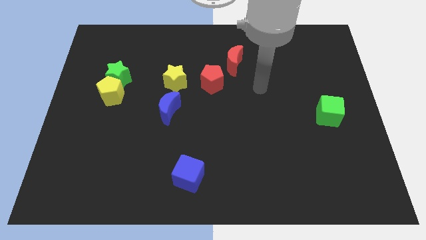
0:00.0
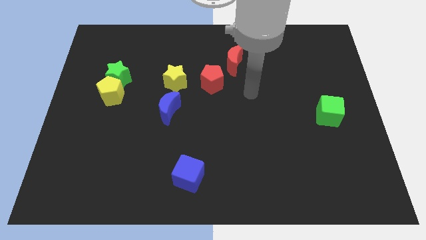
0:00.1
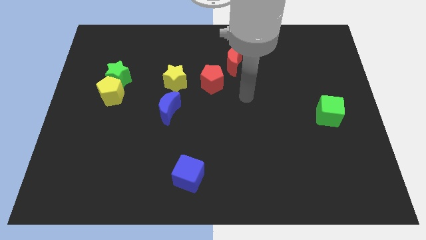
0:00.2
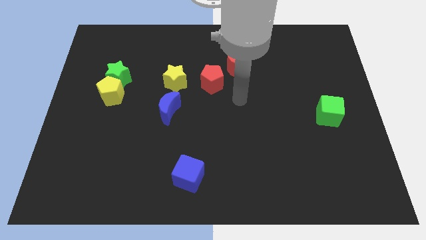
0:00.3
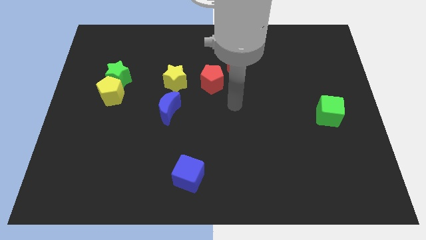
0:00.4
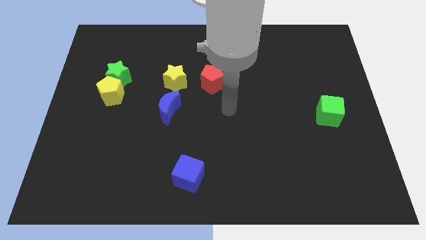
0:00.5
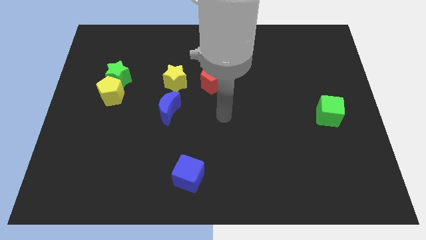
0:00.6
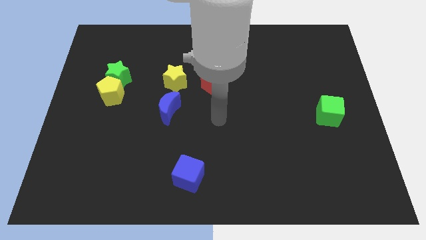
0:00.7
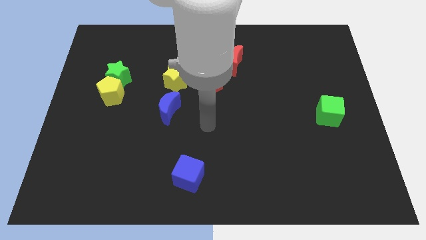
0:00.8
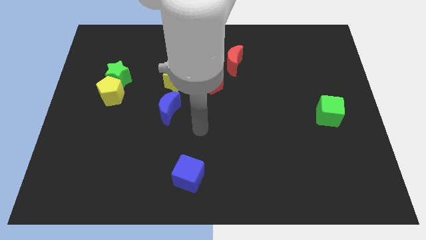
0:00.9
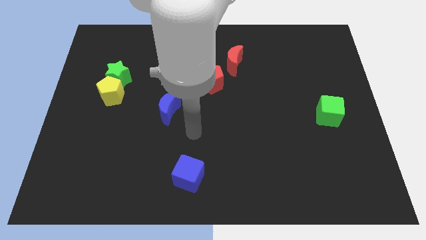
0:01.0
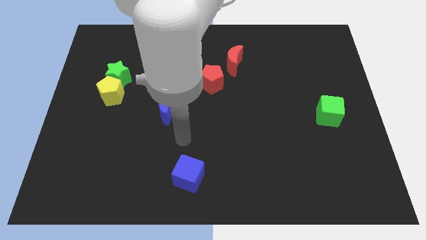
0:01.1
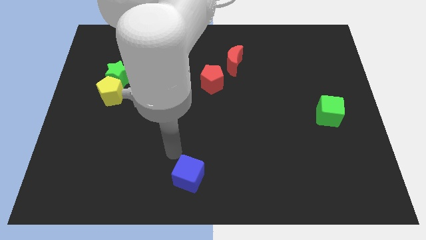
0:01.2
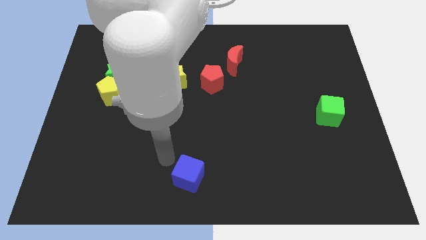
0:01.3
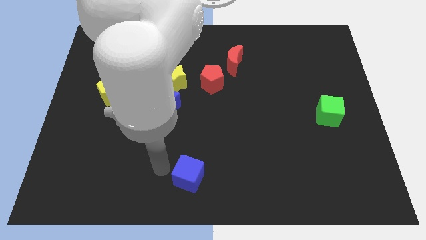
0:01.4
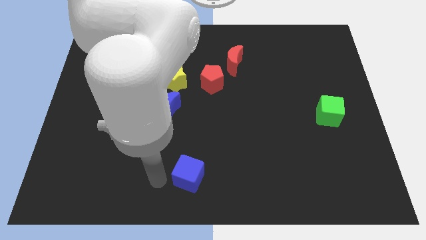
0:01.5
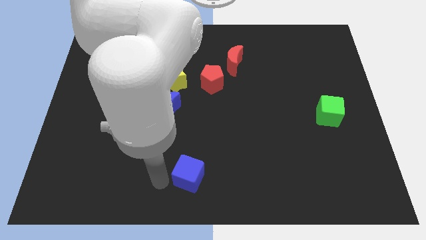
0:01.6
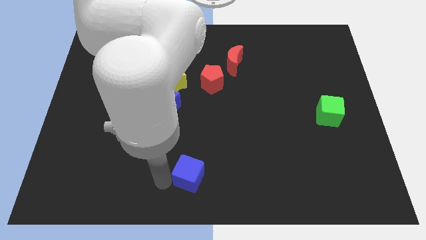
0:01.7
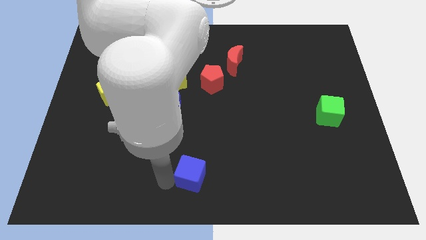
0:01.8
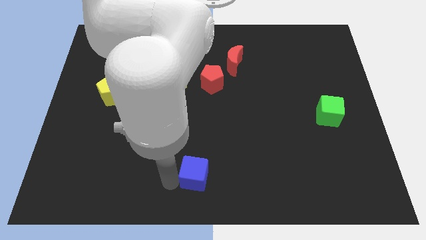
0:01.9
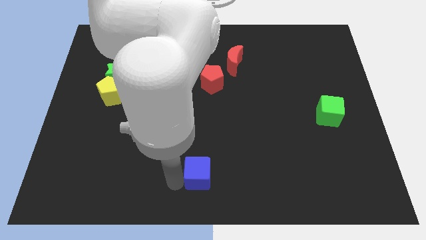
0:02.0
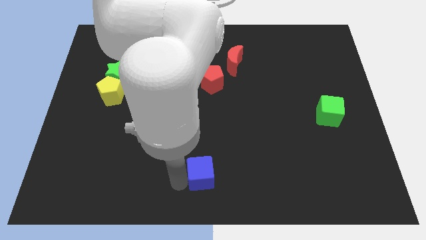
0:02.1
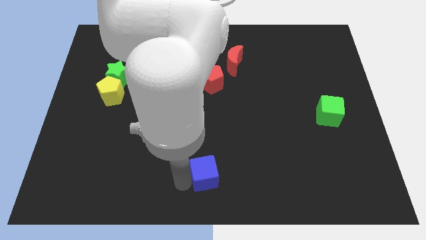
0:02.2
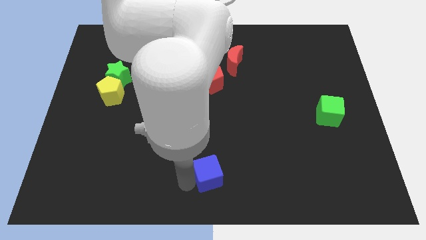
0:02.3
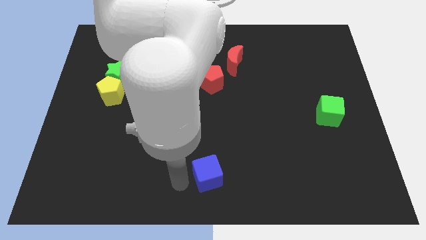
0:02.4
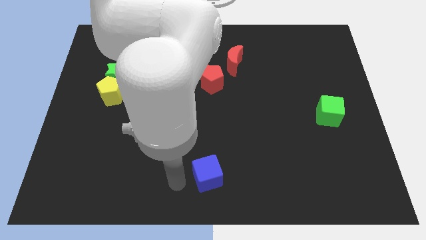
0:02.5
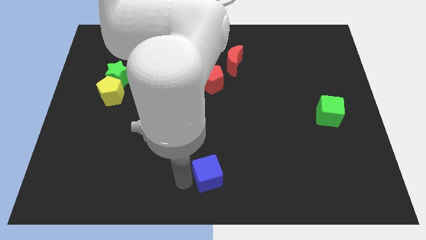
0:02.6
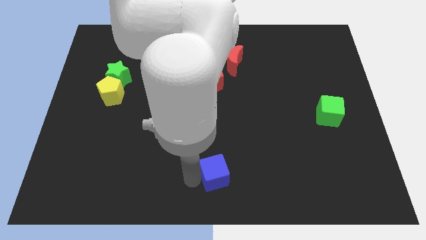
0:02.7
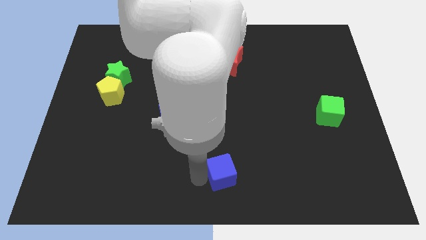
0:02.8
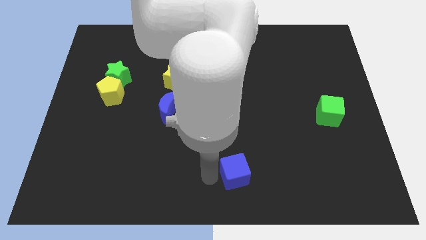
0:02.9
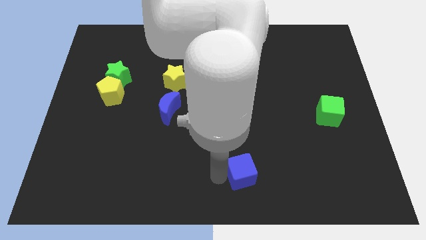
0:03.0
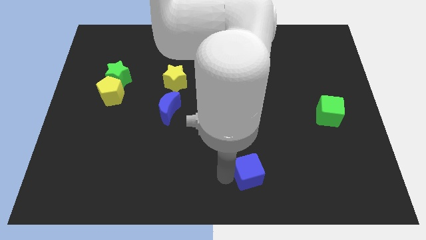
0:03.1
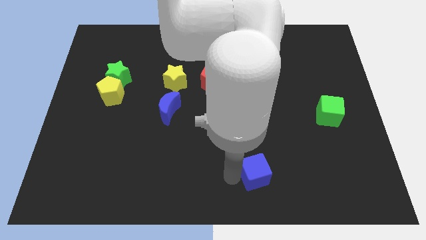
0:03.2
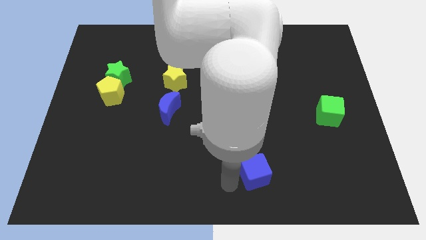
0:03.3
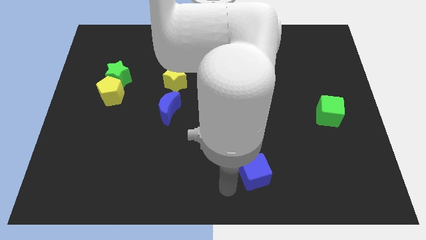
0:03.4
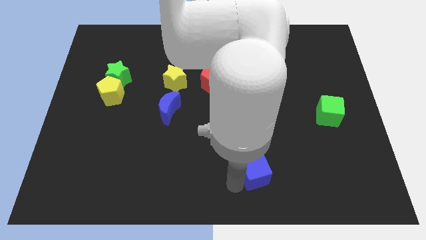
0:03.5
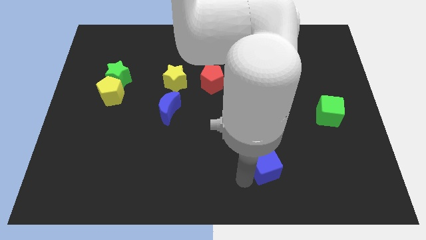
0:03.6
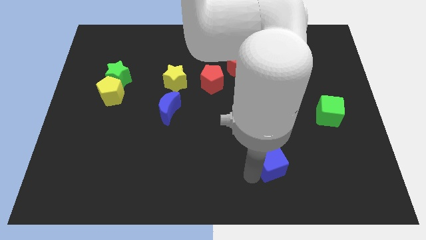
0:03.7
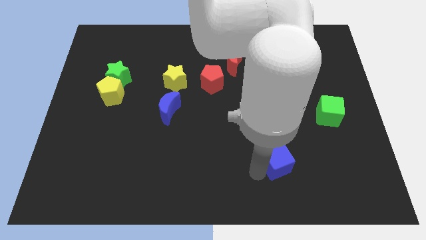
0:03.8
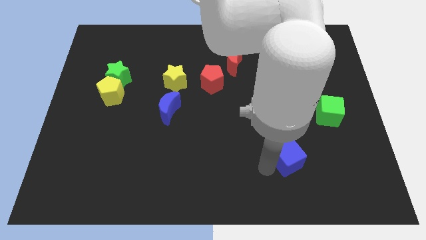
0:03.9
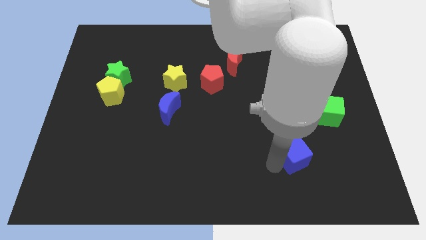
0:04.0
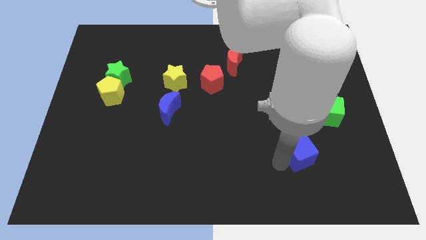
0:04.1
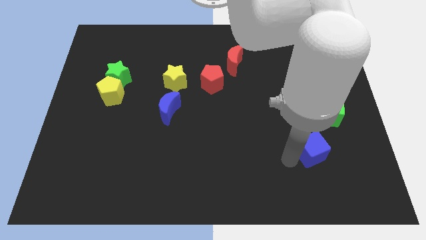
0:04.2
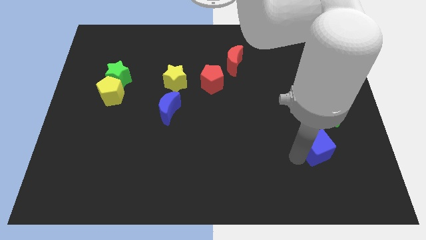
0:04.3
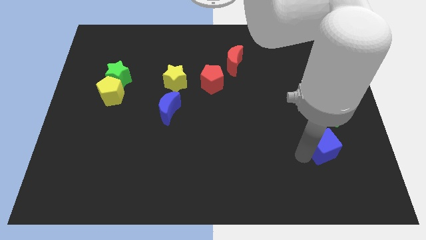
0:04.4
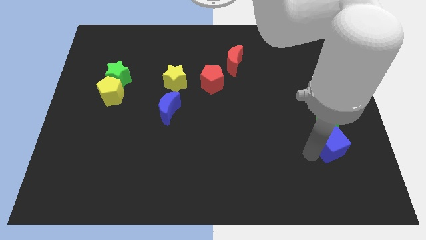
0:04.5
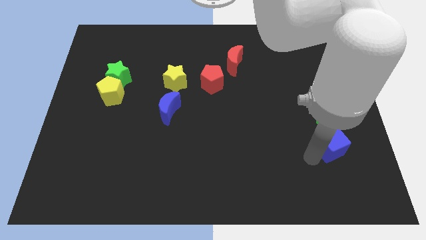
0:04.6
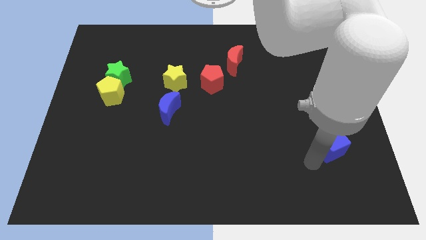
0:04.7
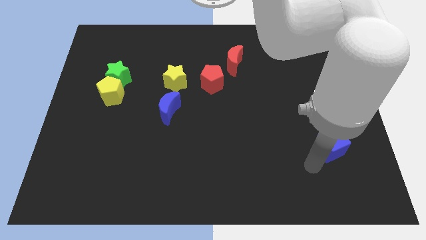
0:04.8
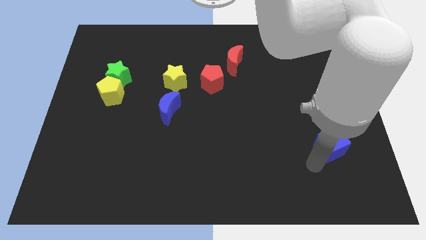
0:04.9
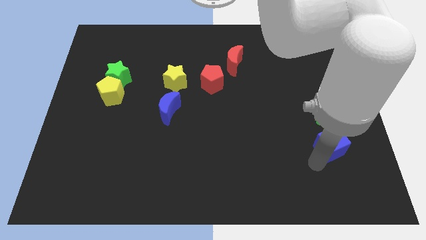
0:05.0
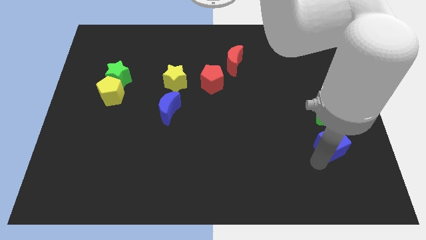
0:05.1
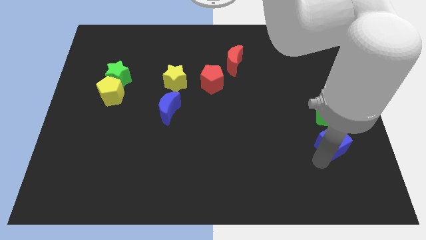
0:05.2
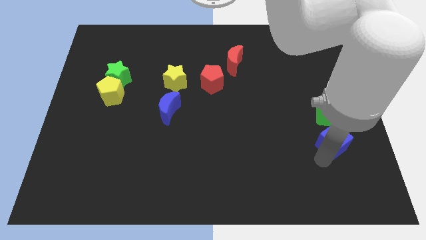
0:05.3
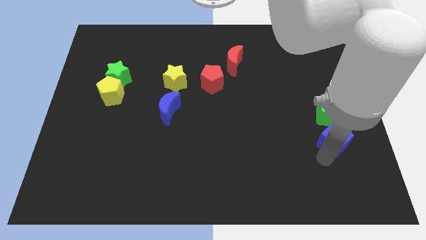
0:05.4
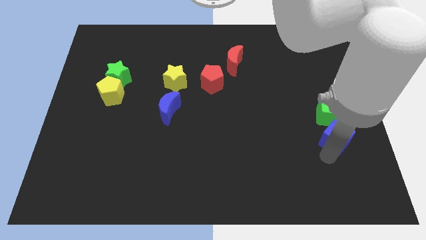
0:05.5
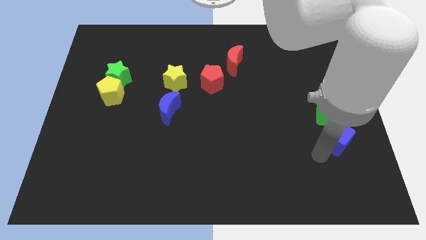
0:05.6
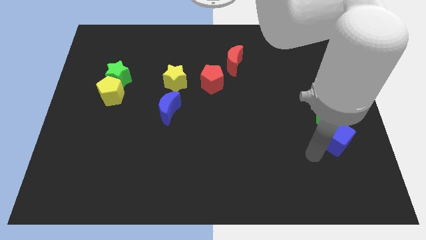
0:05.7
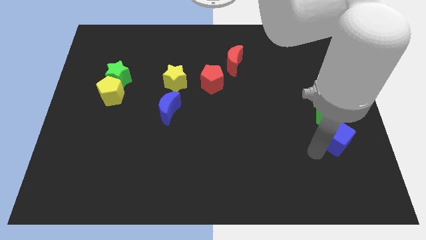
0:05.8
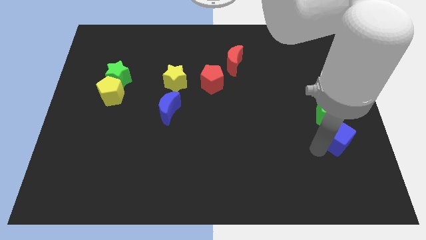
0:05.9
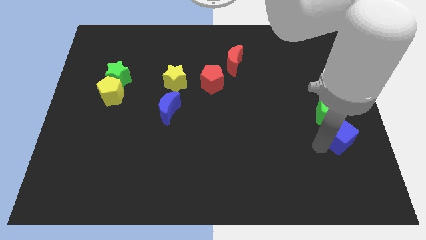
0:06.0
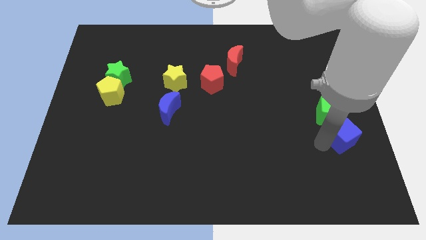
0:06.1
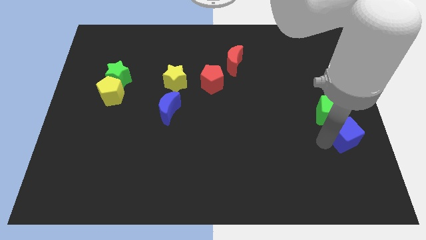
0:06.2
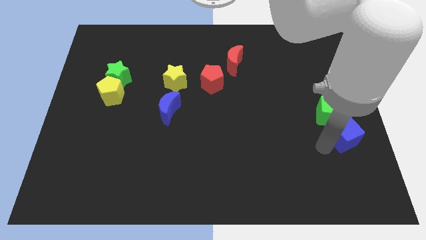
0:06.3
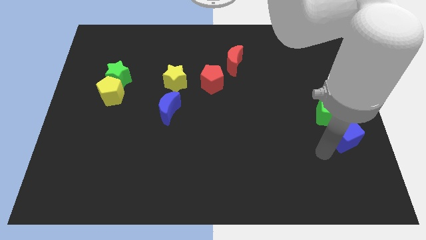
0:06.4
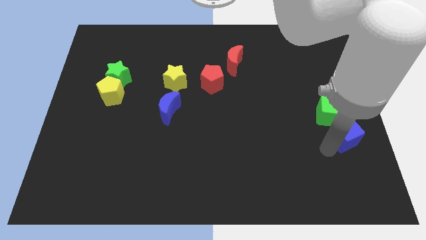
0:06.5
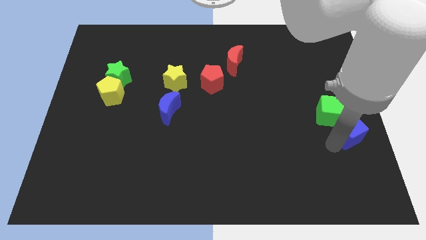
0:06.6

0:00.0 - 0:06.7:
move the blue cube to the right side of the board
